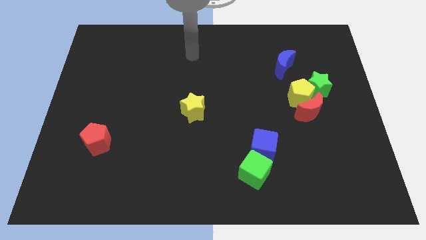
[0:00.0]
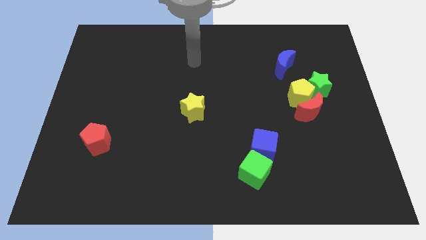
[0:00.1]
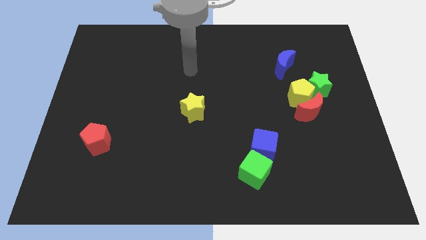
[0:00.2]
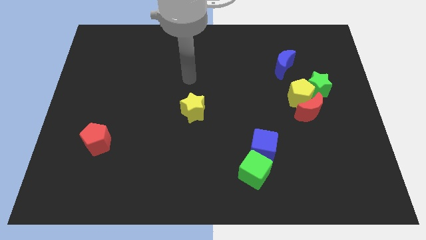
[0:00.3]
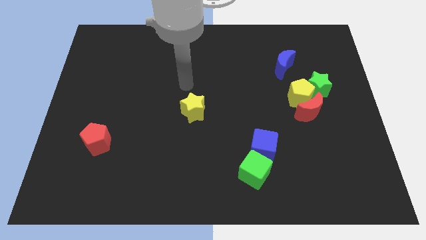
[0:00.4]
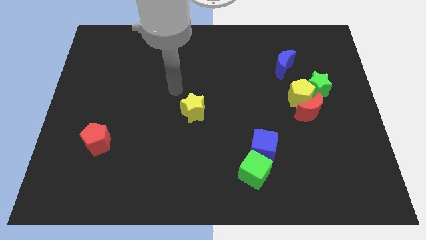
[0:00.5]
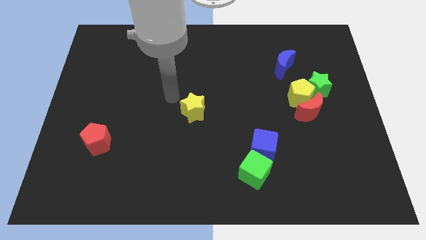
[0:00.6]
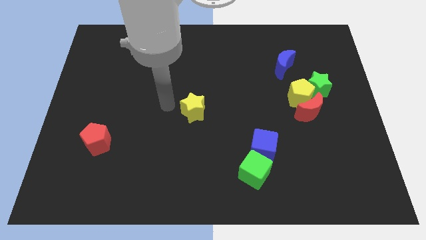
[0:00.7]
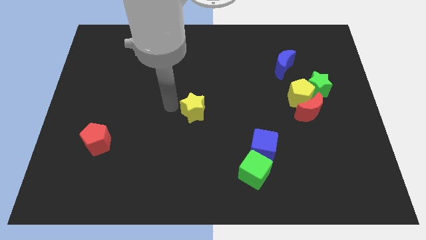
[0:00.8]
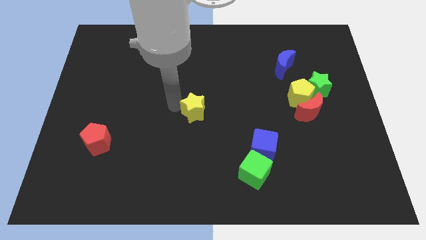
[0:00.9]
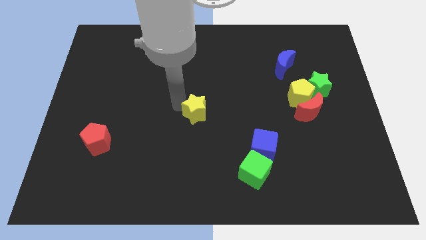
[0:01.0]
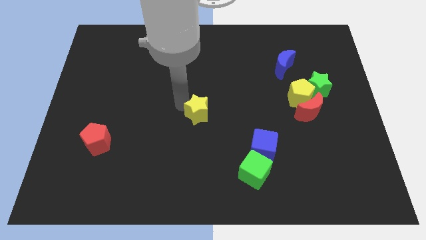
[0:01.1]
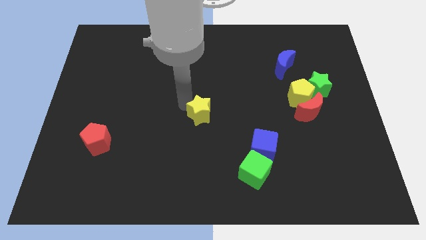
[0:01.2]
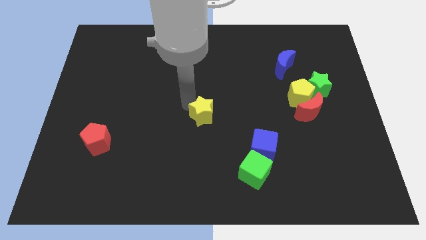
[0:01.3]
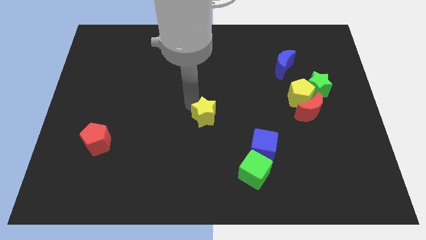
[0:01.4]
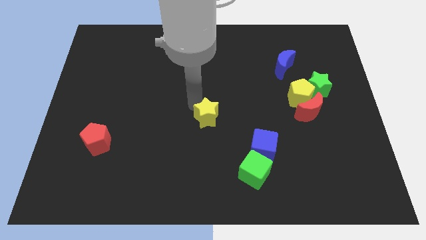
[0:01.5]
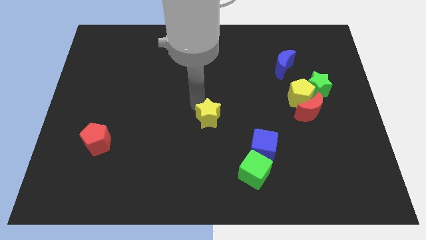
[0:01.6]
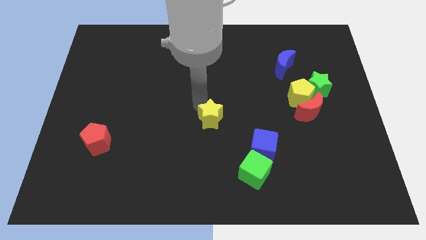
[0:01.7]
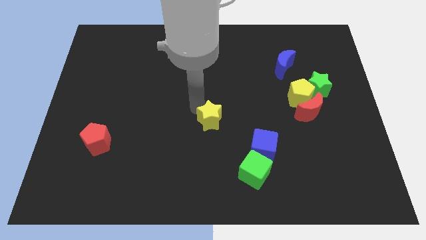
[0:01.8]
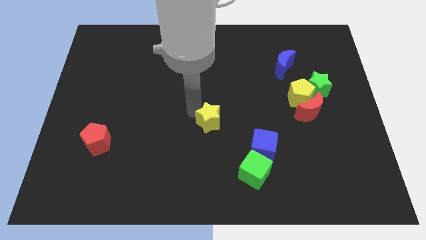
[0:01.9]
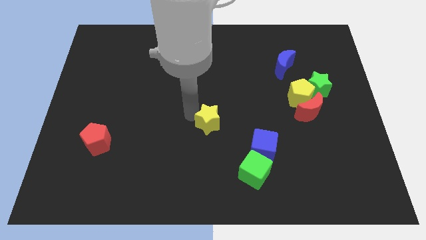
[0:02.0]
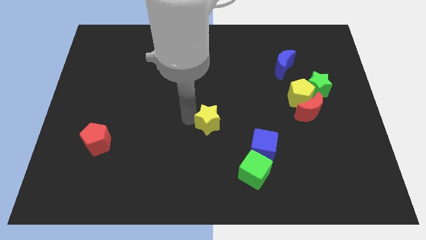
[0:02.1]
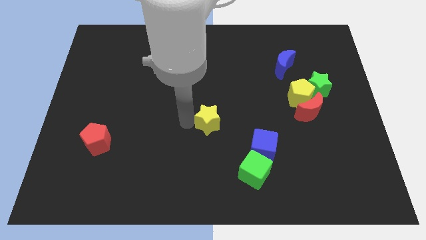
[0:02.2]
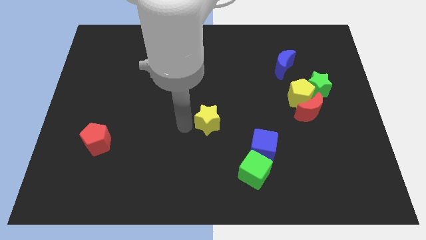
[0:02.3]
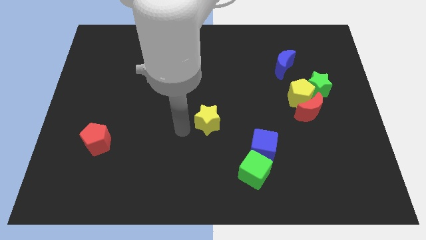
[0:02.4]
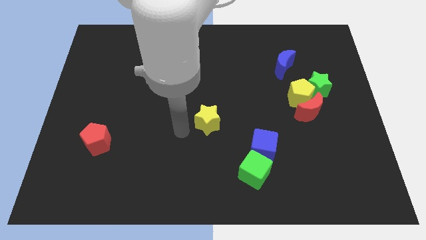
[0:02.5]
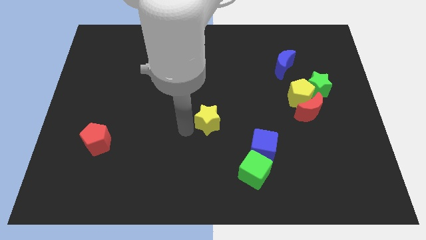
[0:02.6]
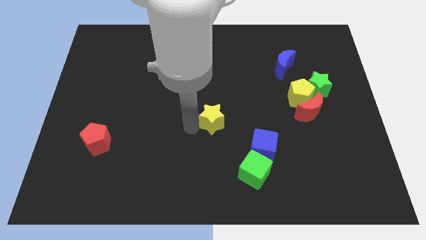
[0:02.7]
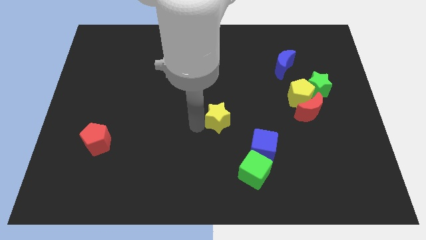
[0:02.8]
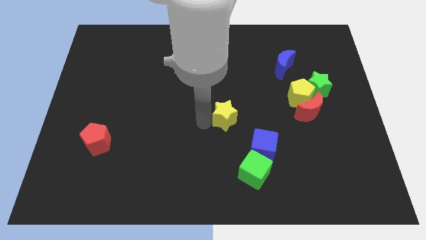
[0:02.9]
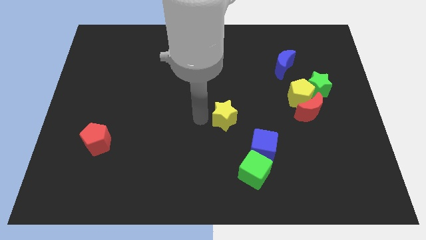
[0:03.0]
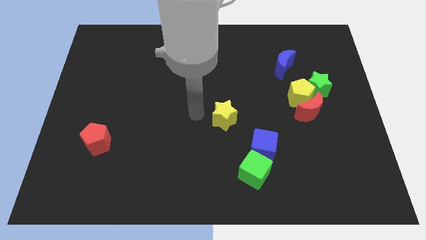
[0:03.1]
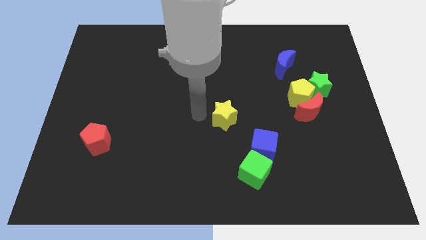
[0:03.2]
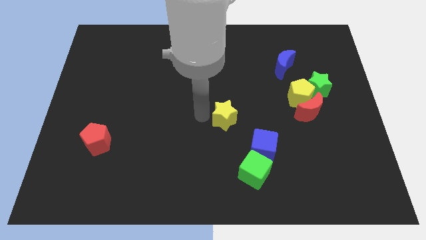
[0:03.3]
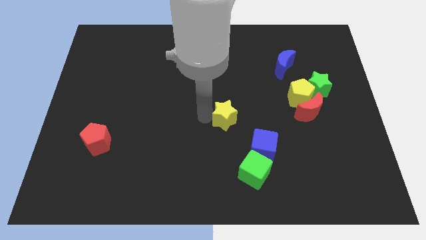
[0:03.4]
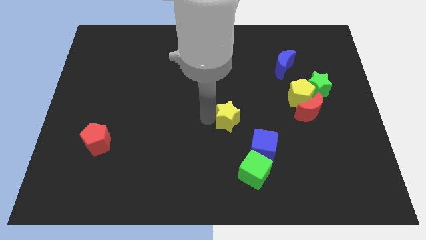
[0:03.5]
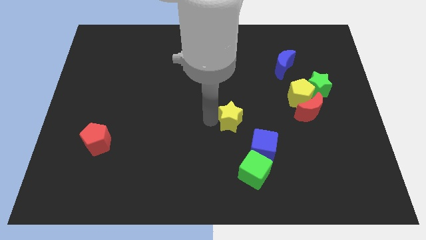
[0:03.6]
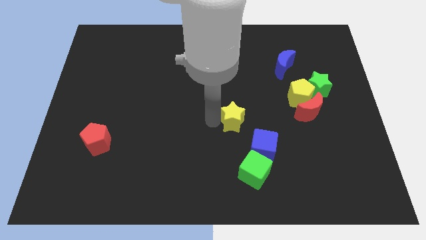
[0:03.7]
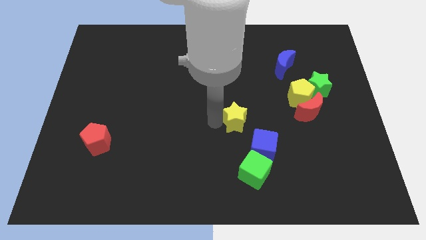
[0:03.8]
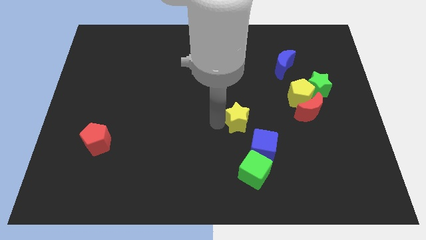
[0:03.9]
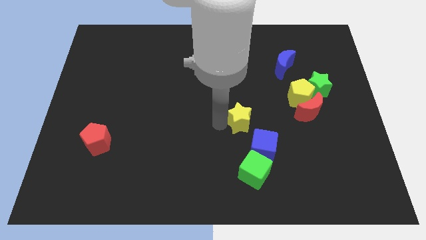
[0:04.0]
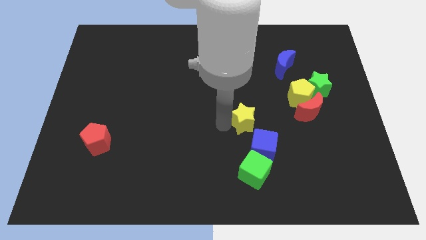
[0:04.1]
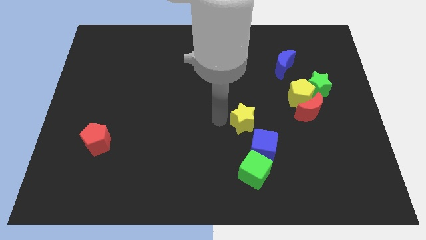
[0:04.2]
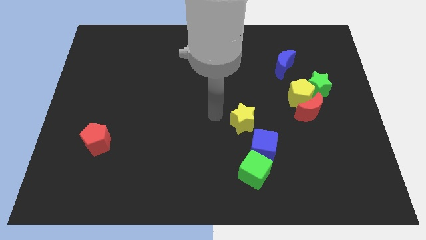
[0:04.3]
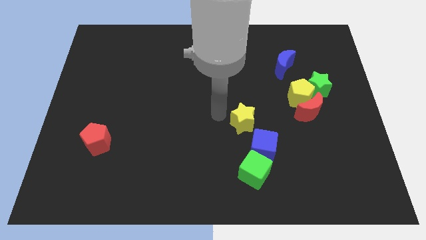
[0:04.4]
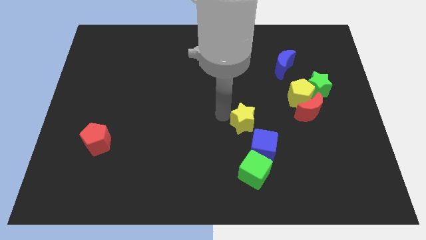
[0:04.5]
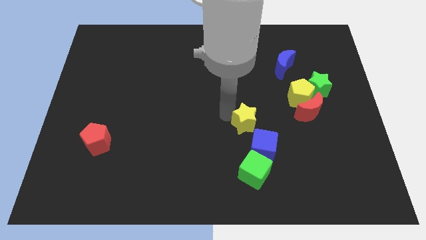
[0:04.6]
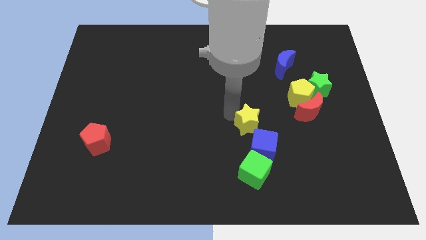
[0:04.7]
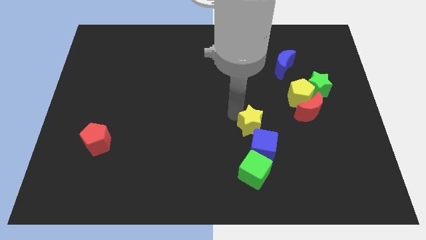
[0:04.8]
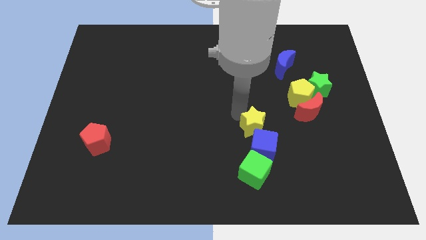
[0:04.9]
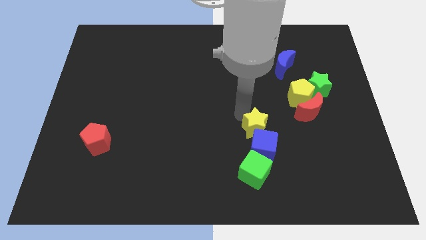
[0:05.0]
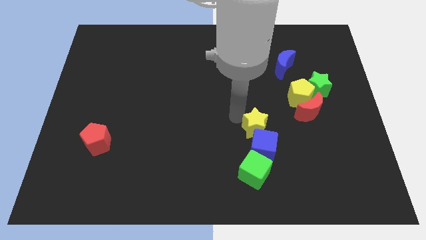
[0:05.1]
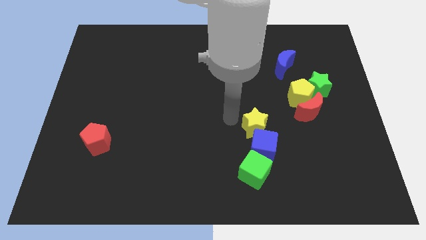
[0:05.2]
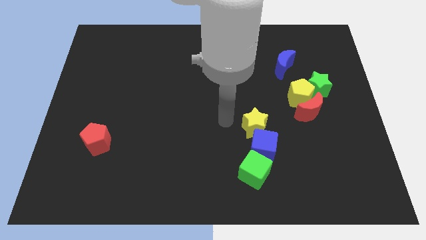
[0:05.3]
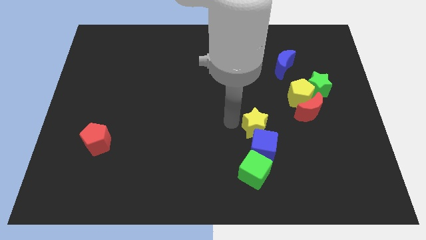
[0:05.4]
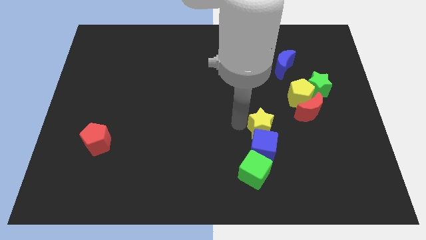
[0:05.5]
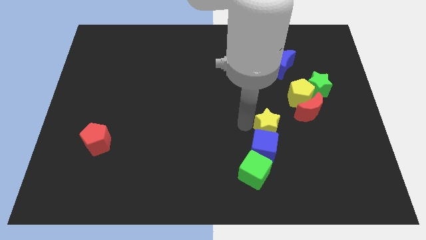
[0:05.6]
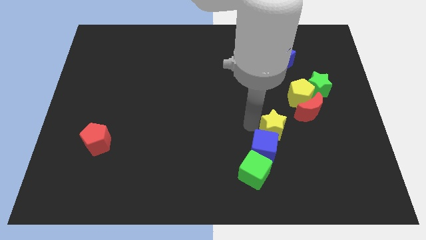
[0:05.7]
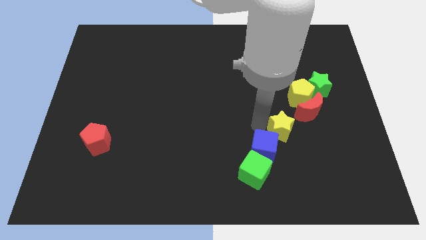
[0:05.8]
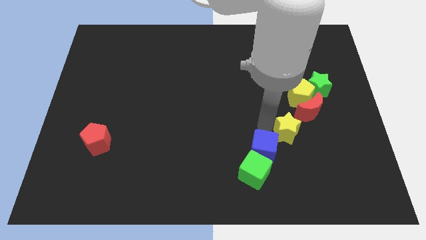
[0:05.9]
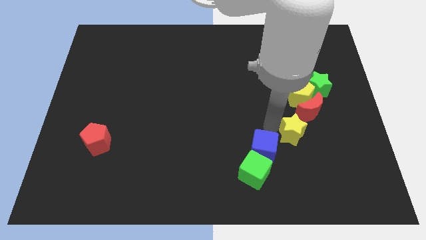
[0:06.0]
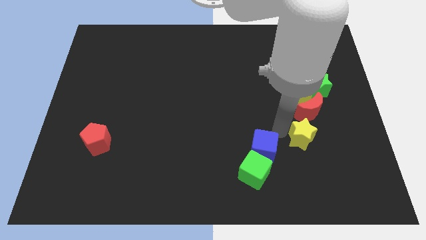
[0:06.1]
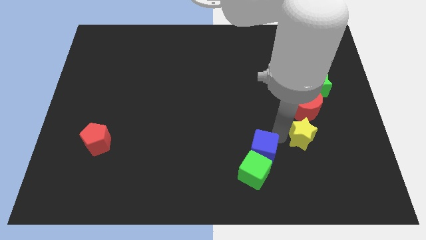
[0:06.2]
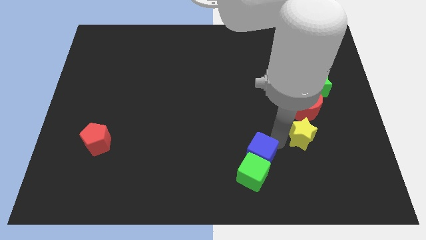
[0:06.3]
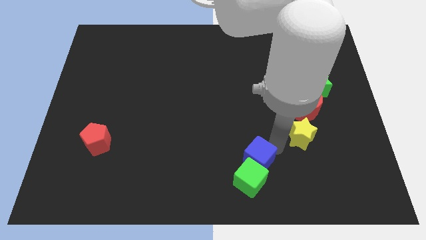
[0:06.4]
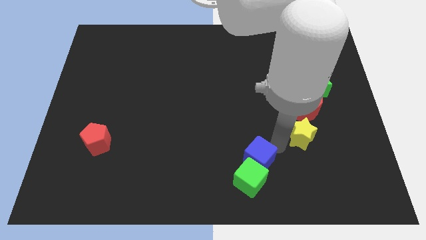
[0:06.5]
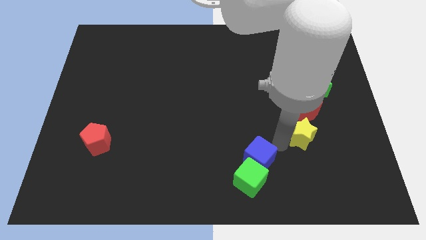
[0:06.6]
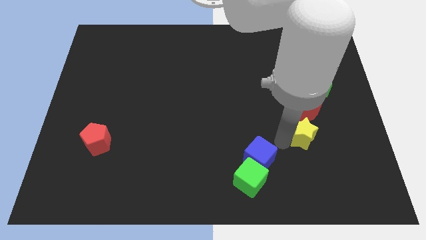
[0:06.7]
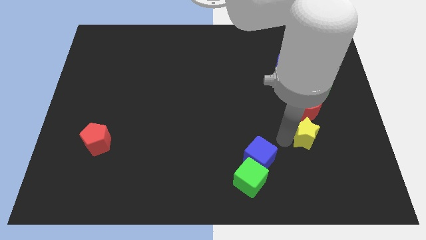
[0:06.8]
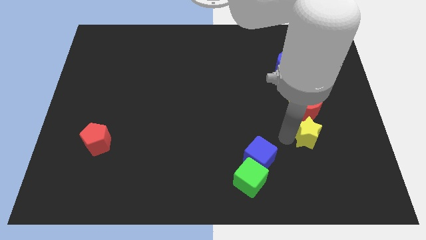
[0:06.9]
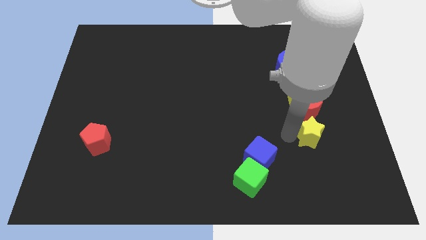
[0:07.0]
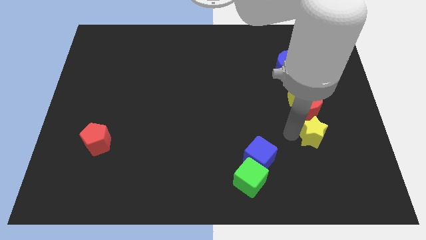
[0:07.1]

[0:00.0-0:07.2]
push the yellow star to the bottom side of the green star

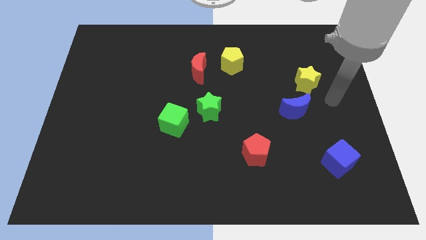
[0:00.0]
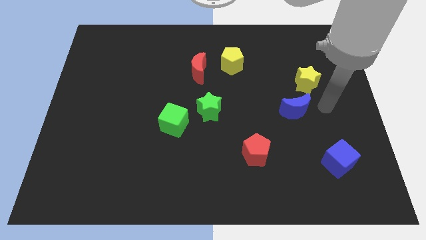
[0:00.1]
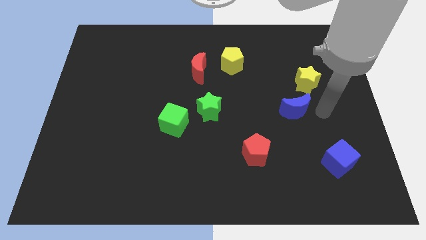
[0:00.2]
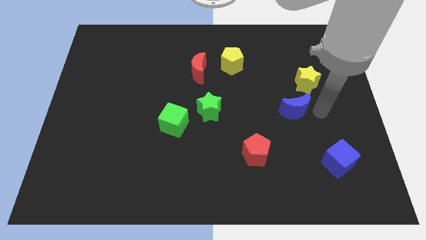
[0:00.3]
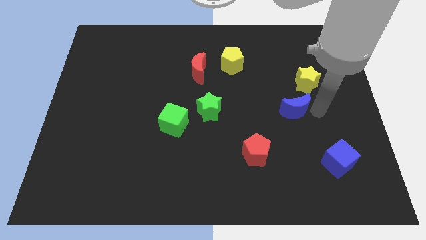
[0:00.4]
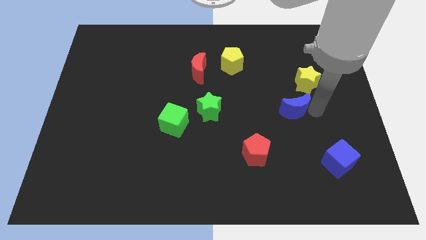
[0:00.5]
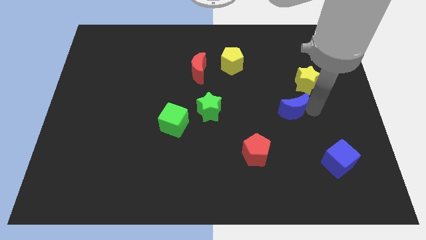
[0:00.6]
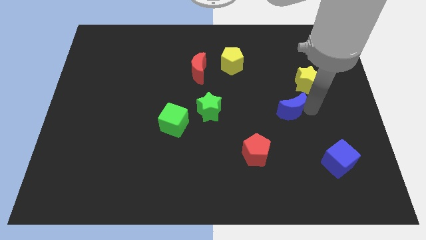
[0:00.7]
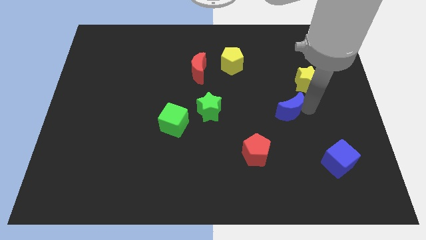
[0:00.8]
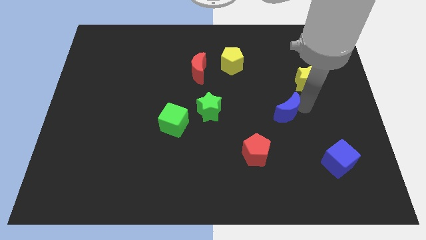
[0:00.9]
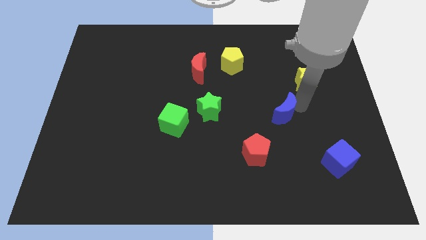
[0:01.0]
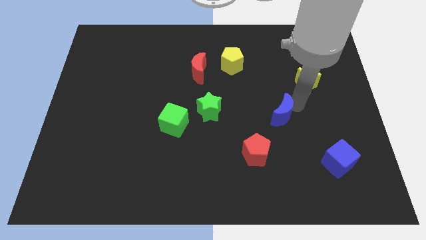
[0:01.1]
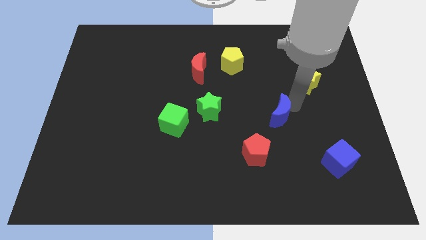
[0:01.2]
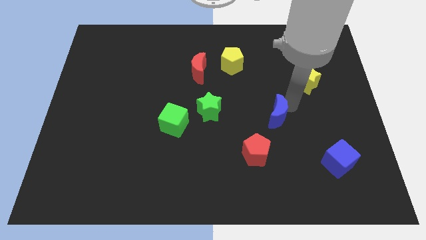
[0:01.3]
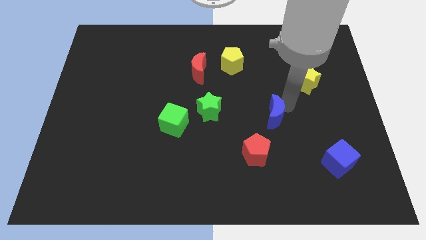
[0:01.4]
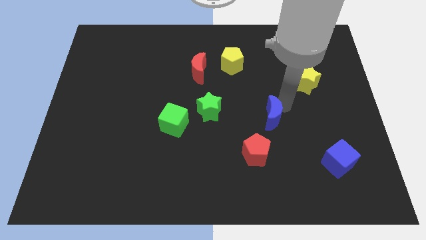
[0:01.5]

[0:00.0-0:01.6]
put the blue moon to the top side of the red pentagon
